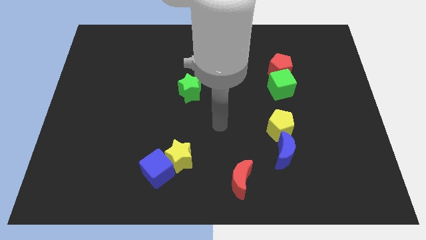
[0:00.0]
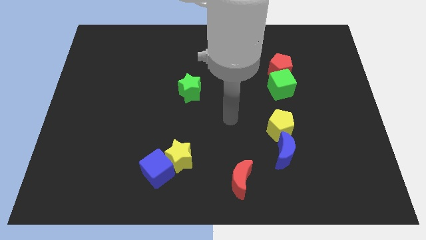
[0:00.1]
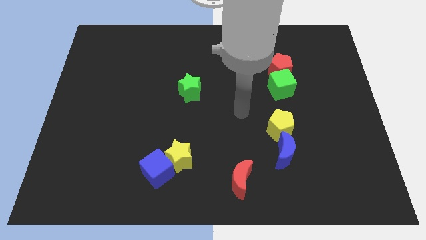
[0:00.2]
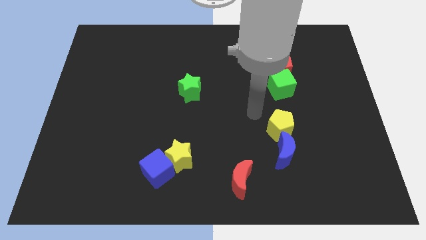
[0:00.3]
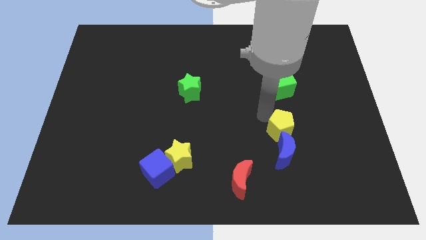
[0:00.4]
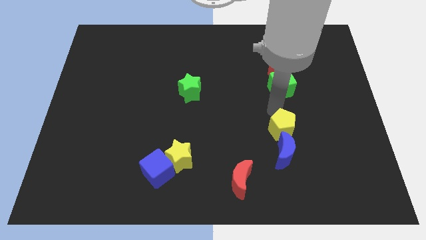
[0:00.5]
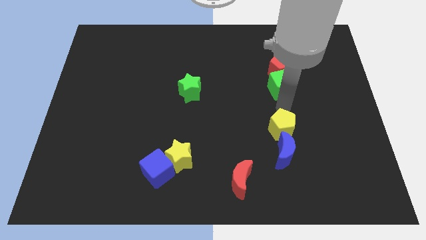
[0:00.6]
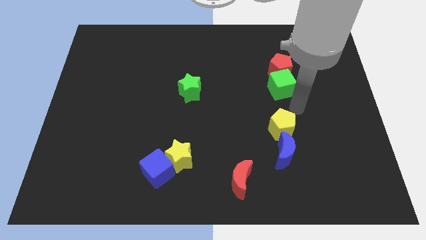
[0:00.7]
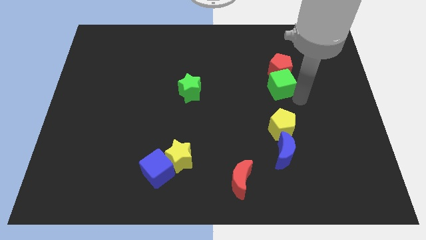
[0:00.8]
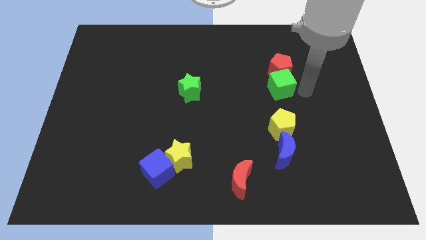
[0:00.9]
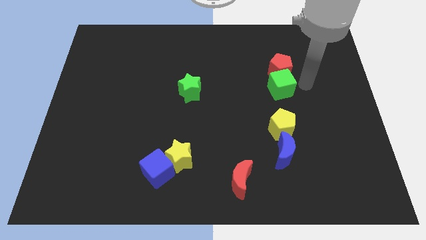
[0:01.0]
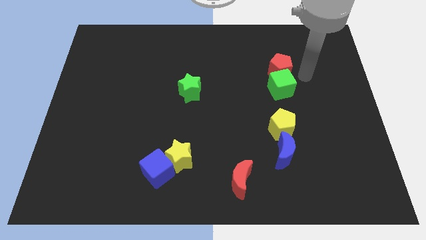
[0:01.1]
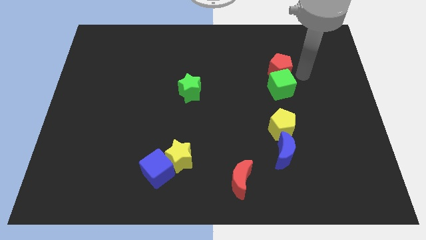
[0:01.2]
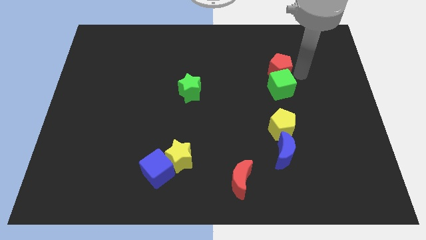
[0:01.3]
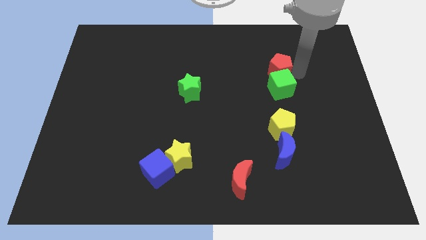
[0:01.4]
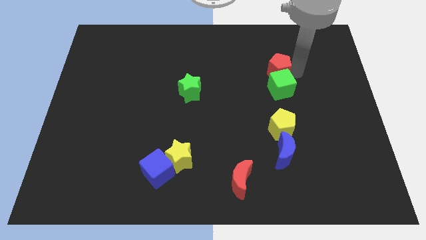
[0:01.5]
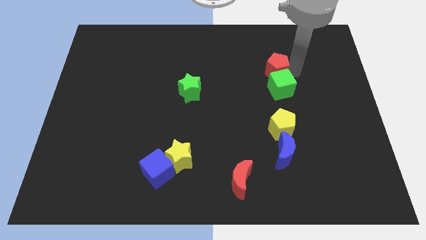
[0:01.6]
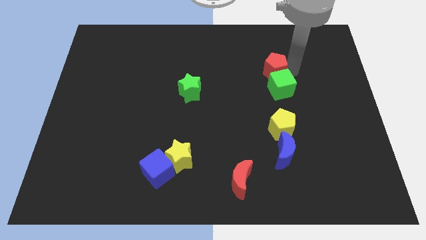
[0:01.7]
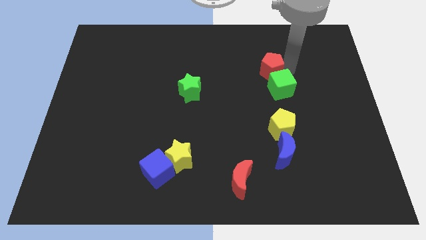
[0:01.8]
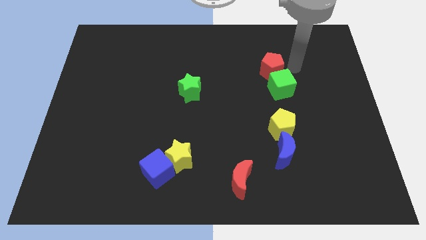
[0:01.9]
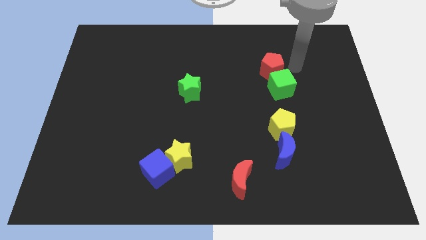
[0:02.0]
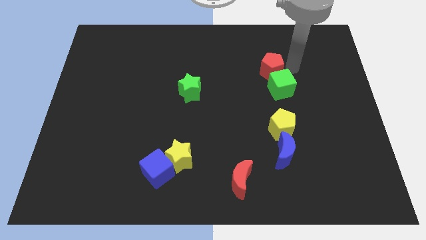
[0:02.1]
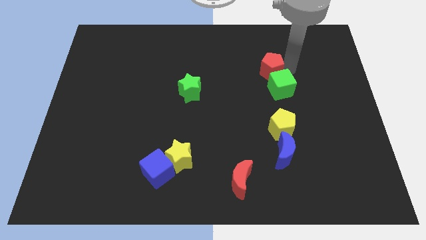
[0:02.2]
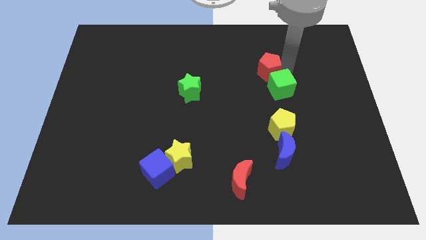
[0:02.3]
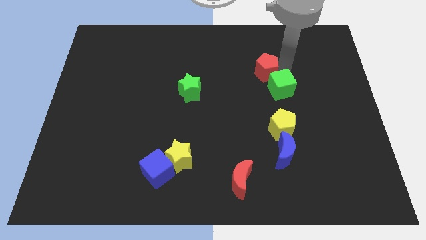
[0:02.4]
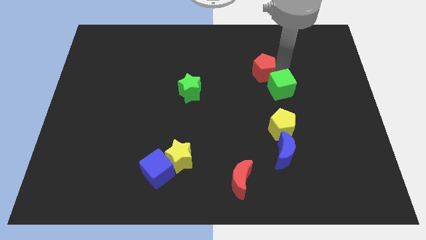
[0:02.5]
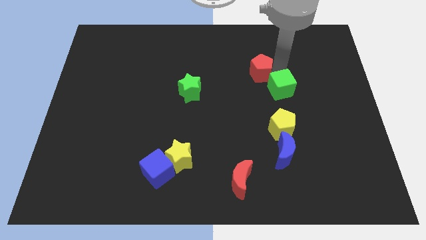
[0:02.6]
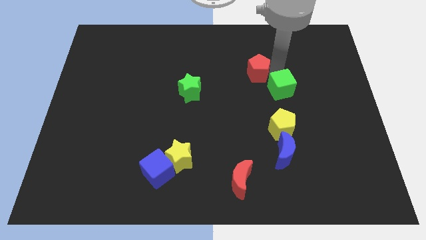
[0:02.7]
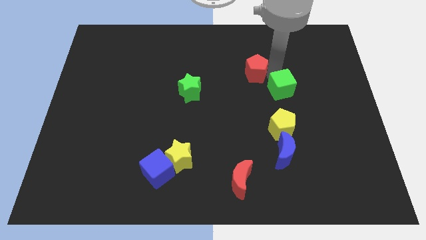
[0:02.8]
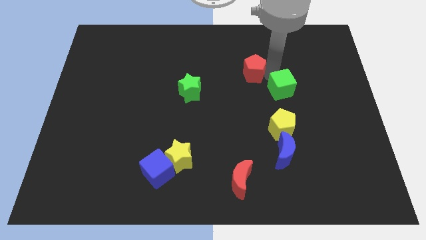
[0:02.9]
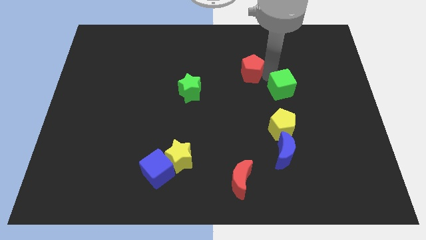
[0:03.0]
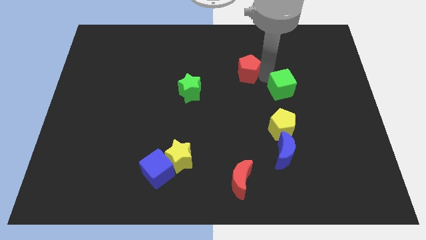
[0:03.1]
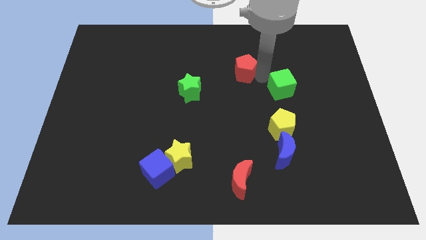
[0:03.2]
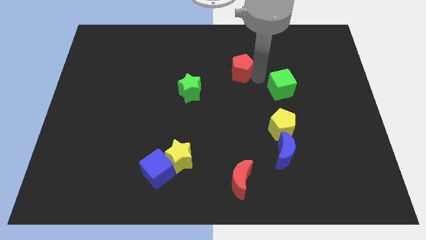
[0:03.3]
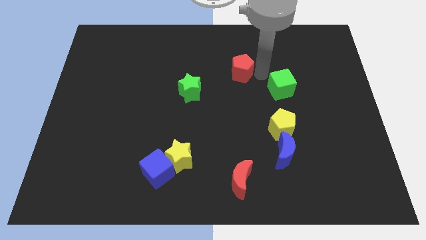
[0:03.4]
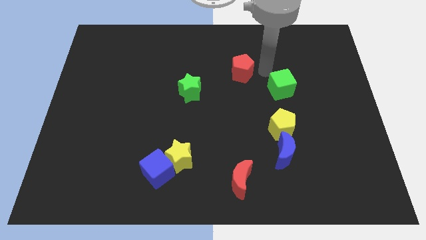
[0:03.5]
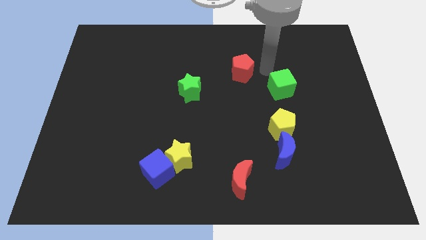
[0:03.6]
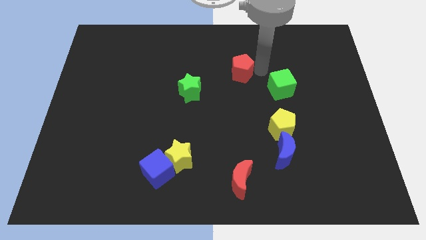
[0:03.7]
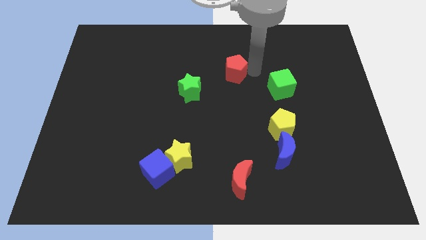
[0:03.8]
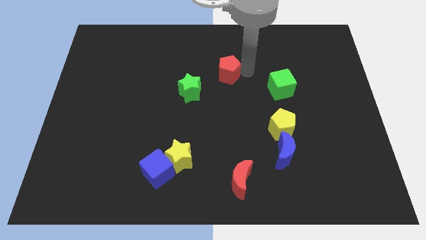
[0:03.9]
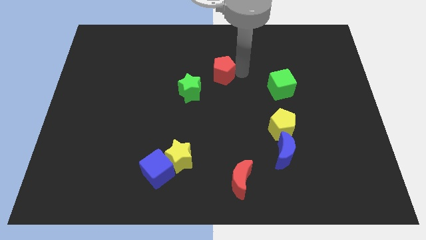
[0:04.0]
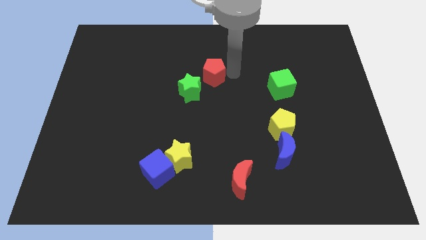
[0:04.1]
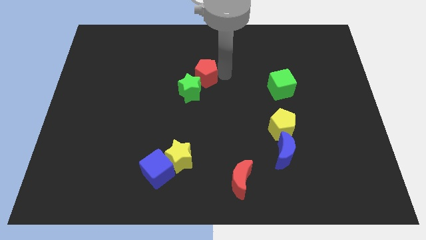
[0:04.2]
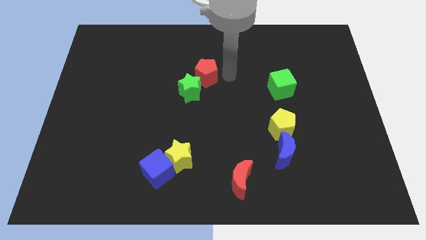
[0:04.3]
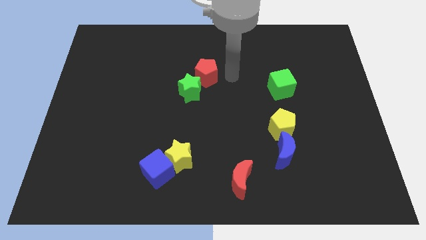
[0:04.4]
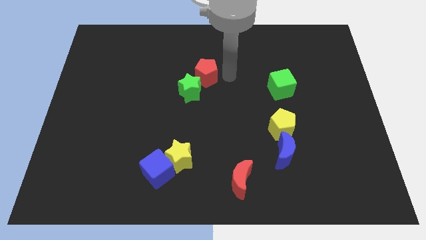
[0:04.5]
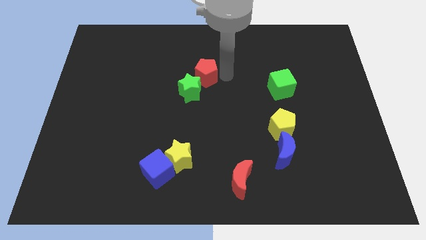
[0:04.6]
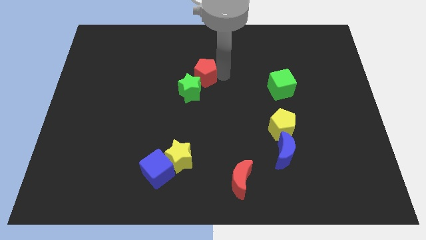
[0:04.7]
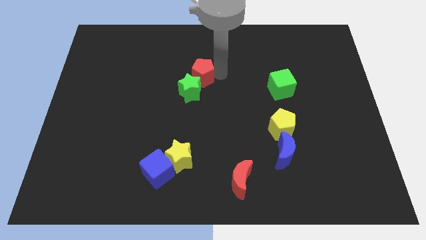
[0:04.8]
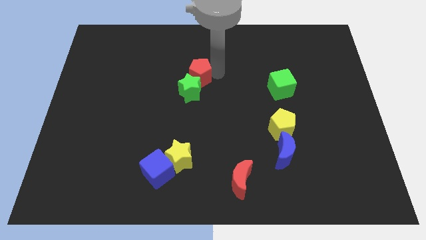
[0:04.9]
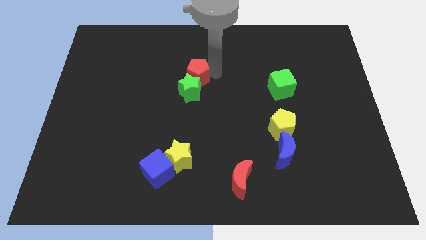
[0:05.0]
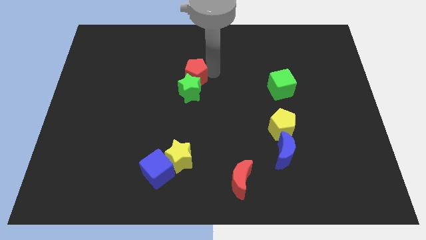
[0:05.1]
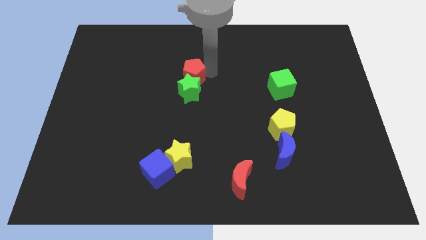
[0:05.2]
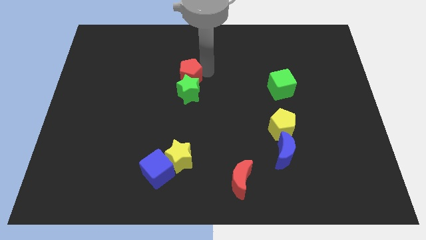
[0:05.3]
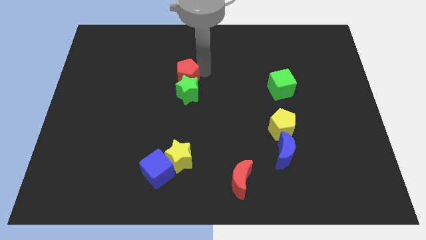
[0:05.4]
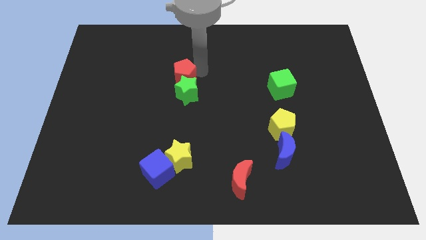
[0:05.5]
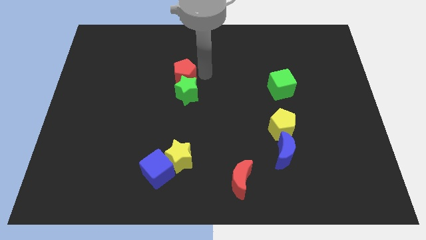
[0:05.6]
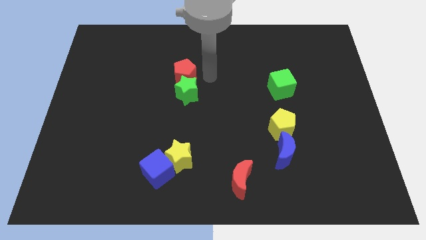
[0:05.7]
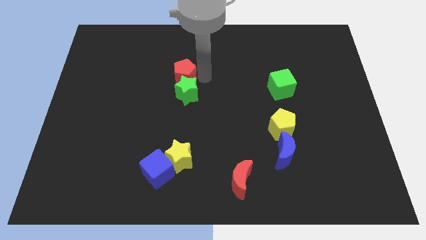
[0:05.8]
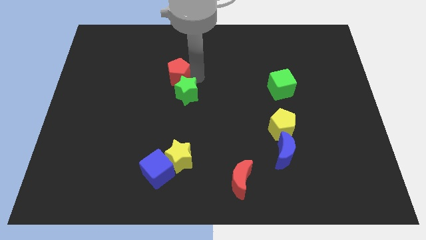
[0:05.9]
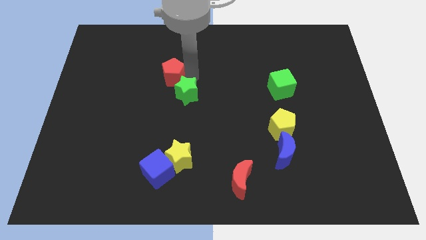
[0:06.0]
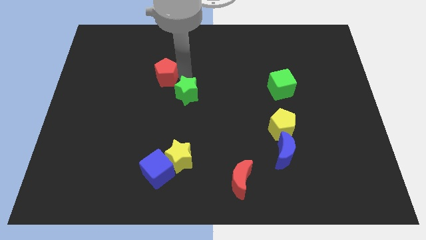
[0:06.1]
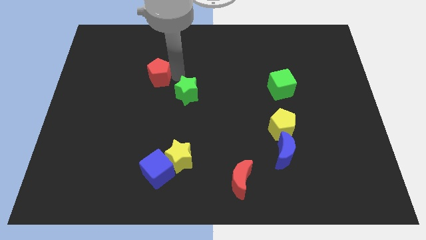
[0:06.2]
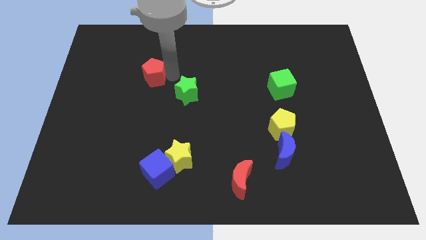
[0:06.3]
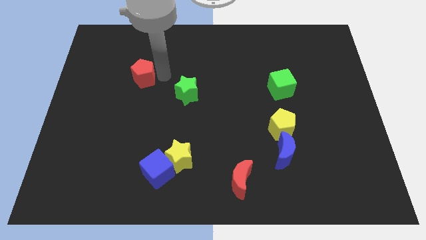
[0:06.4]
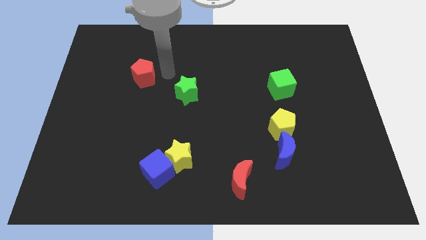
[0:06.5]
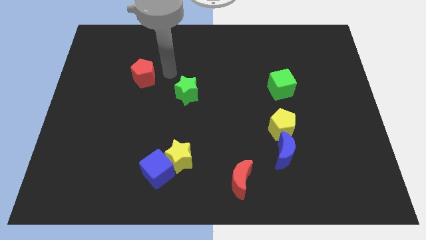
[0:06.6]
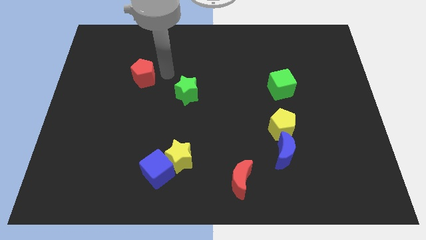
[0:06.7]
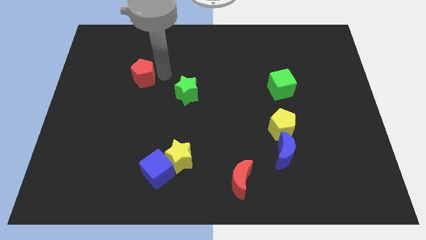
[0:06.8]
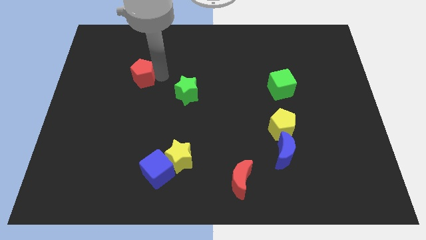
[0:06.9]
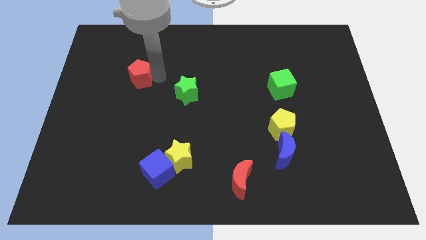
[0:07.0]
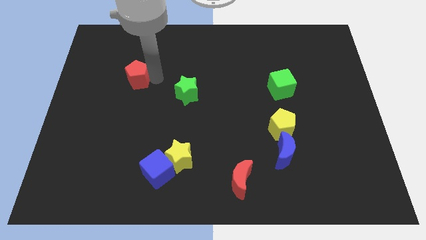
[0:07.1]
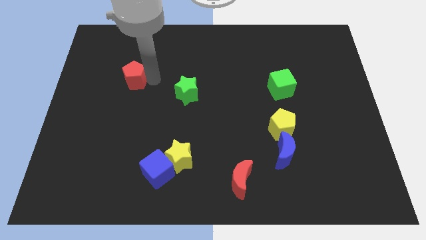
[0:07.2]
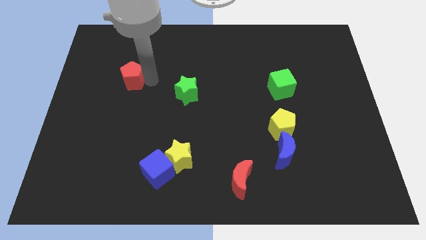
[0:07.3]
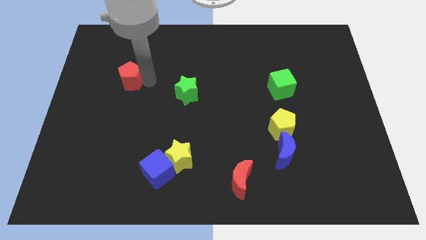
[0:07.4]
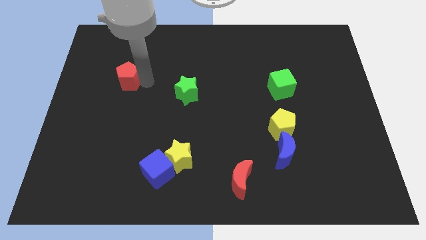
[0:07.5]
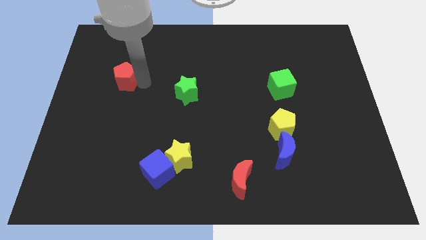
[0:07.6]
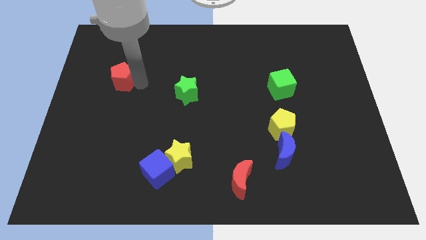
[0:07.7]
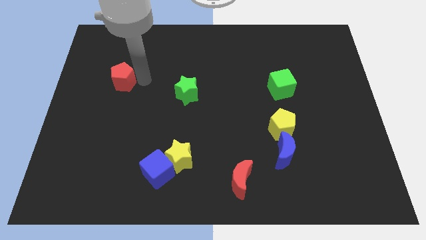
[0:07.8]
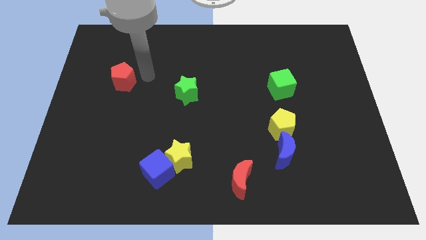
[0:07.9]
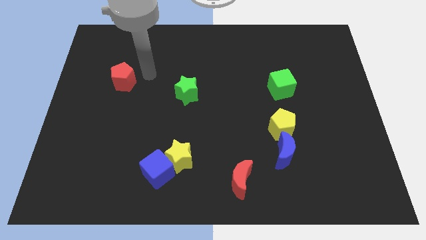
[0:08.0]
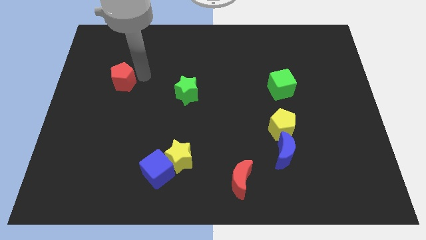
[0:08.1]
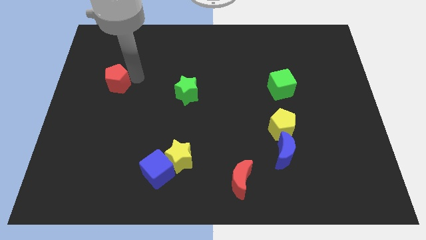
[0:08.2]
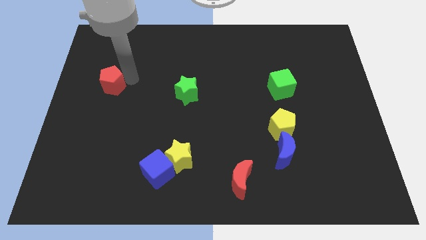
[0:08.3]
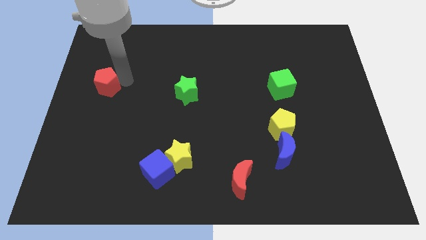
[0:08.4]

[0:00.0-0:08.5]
move the red pentagon to the left side
